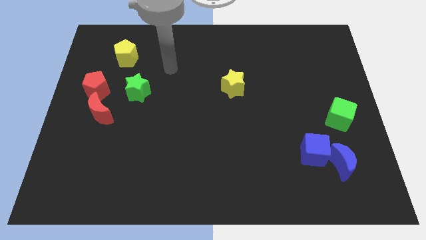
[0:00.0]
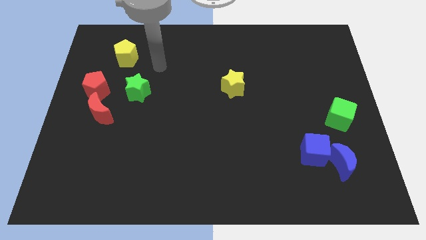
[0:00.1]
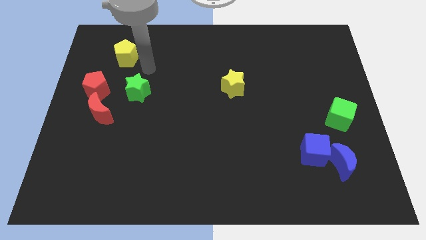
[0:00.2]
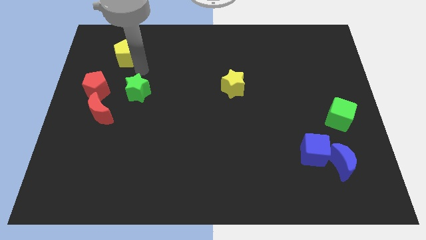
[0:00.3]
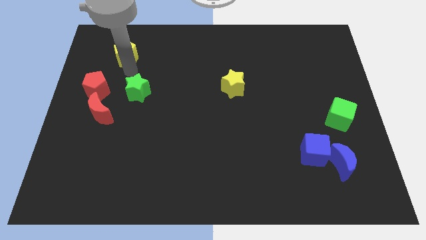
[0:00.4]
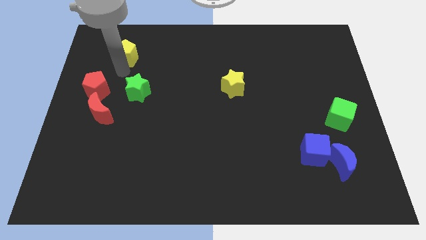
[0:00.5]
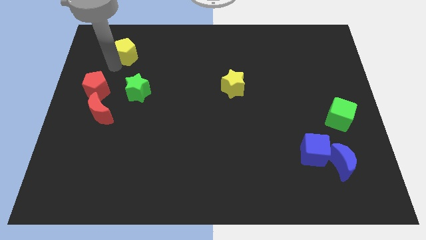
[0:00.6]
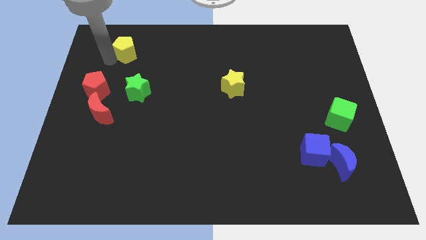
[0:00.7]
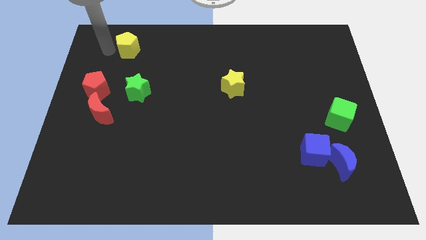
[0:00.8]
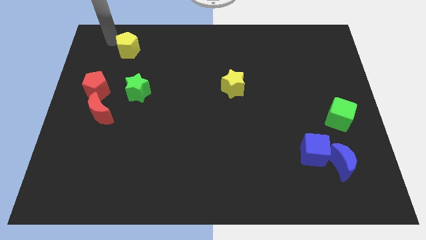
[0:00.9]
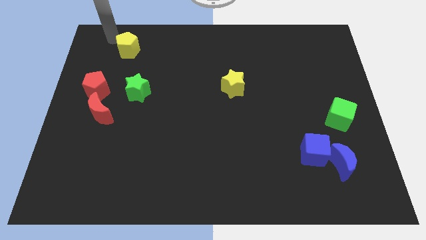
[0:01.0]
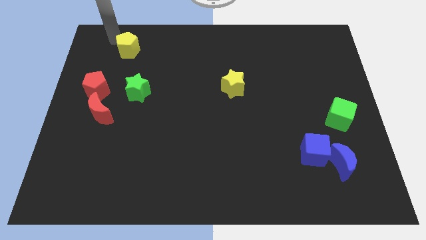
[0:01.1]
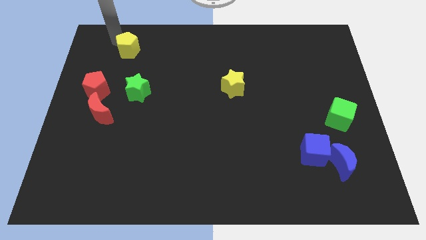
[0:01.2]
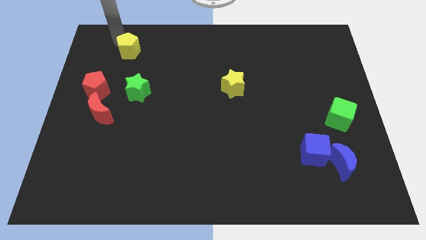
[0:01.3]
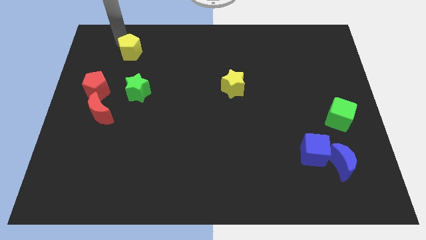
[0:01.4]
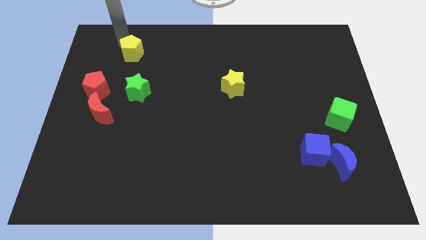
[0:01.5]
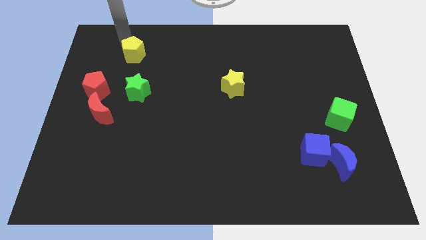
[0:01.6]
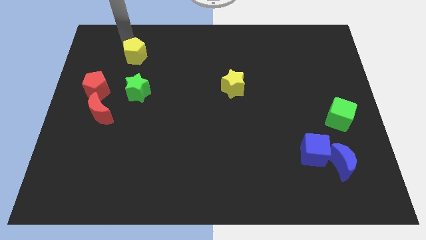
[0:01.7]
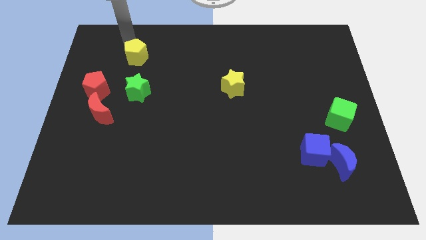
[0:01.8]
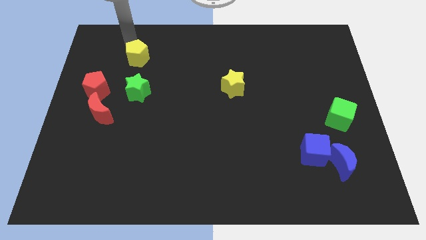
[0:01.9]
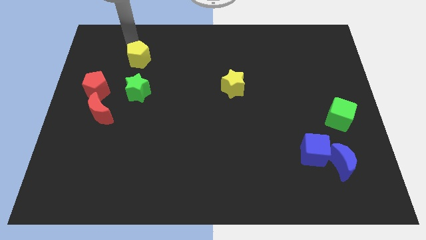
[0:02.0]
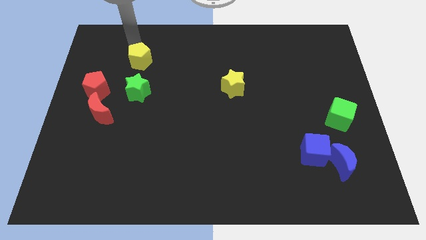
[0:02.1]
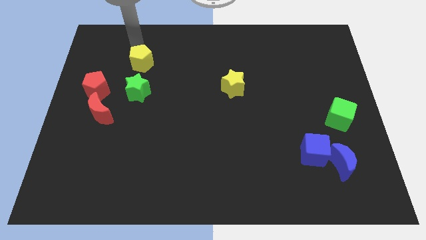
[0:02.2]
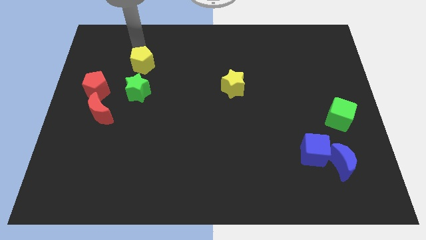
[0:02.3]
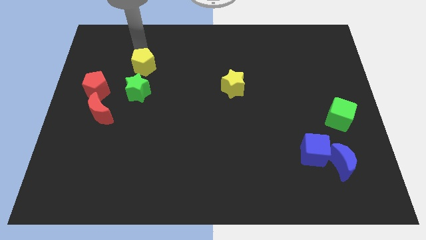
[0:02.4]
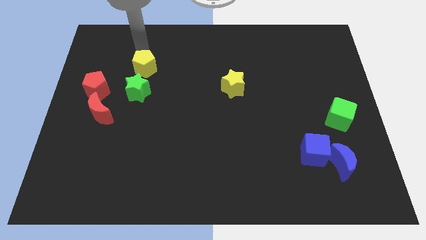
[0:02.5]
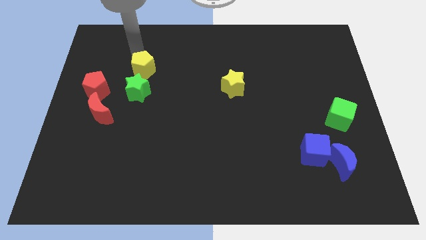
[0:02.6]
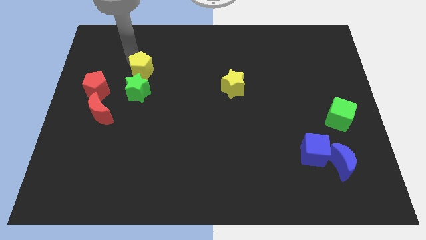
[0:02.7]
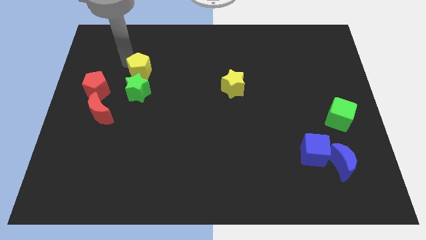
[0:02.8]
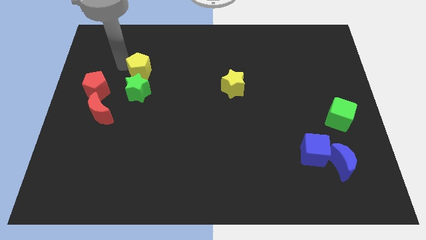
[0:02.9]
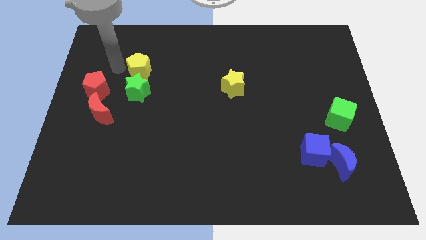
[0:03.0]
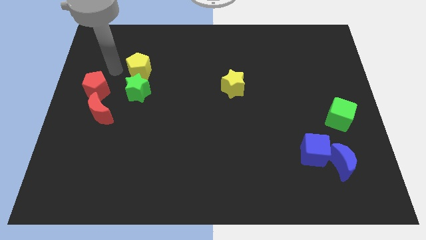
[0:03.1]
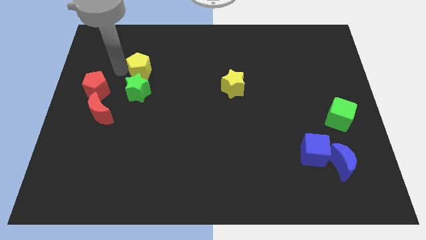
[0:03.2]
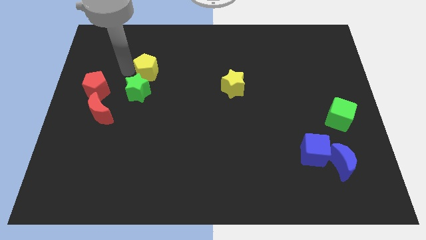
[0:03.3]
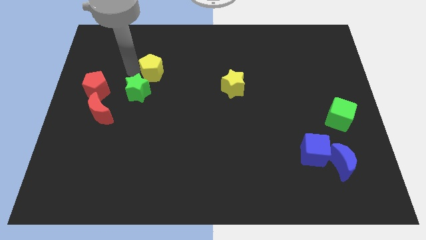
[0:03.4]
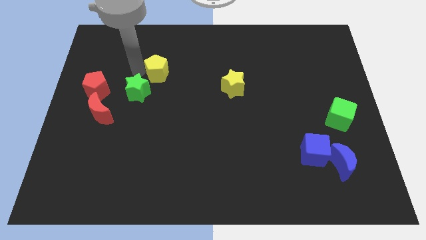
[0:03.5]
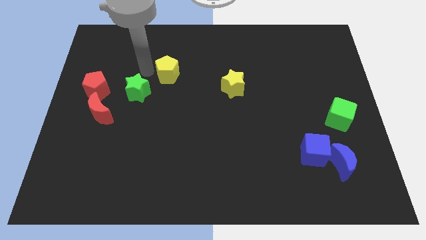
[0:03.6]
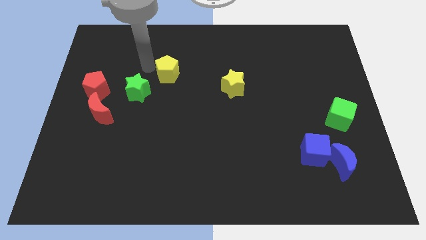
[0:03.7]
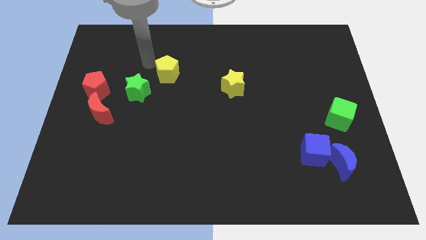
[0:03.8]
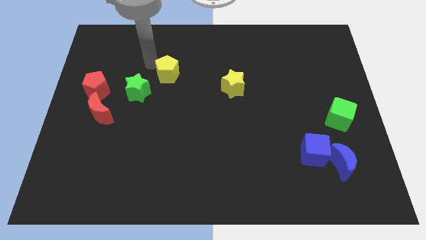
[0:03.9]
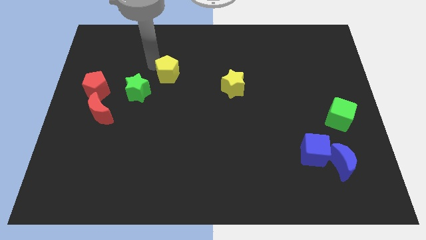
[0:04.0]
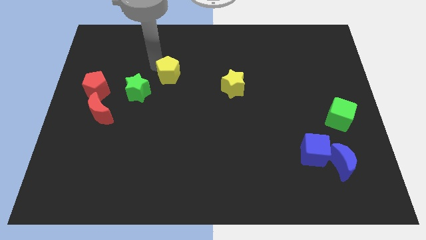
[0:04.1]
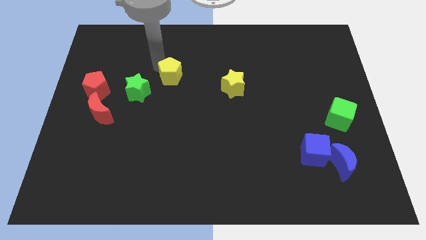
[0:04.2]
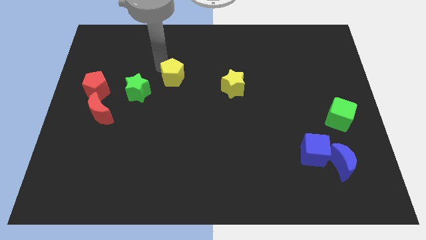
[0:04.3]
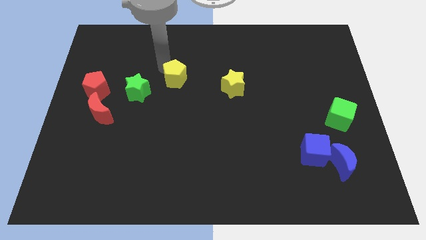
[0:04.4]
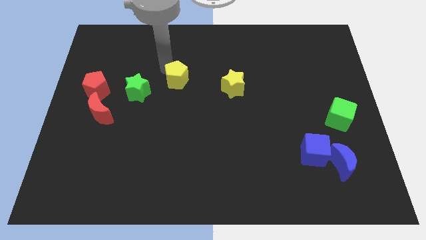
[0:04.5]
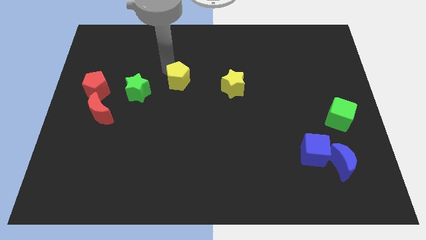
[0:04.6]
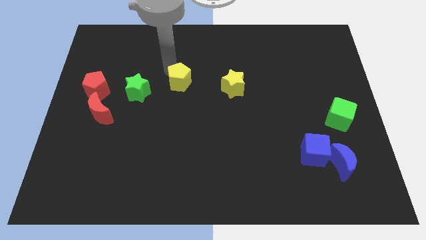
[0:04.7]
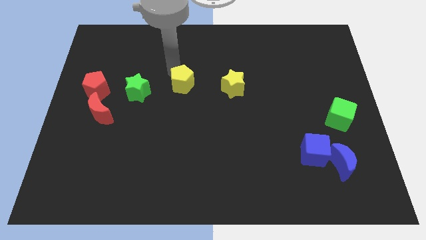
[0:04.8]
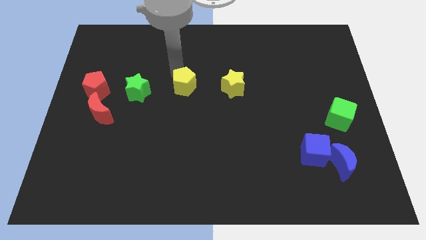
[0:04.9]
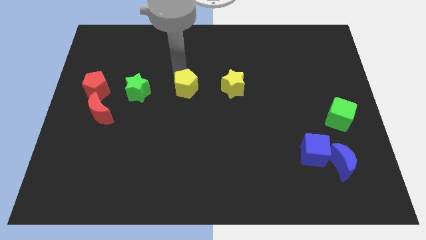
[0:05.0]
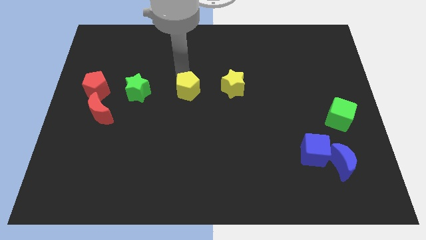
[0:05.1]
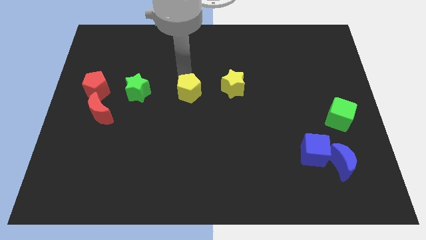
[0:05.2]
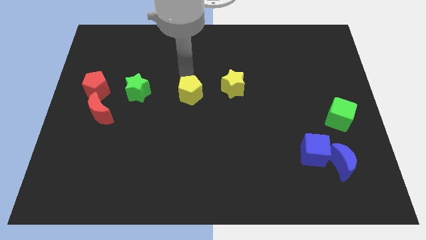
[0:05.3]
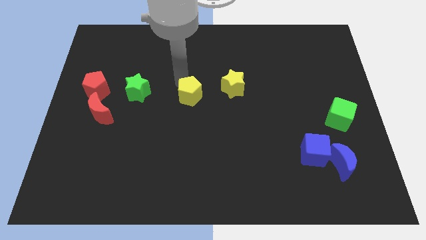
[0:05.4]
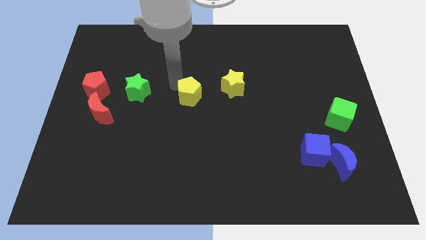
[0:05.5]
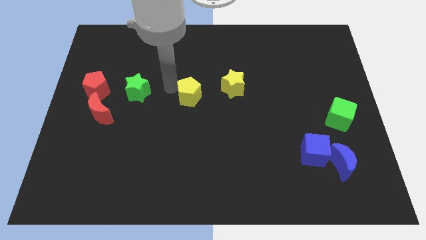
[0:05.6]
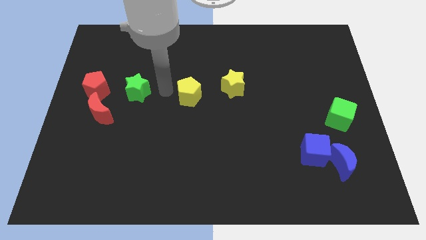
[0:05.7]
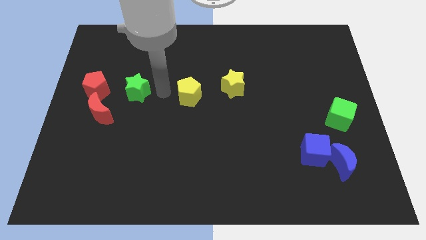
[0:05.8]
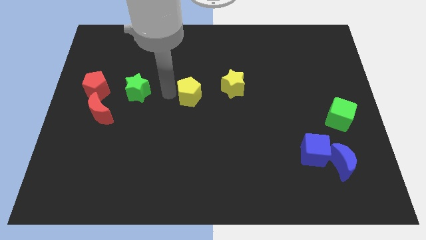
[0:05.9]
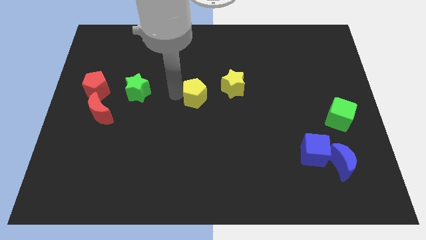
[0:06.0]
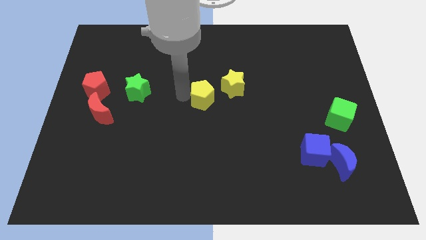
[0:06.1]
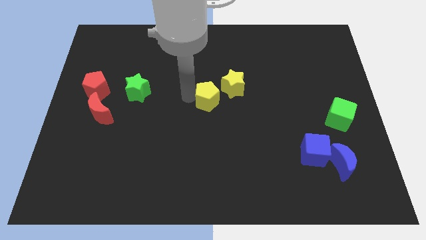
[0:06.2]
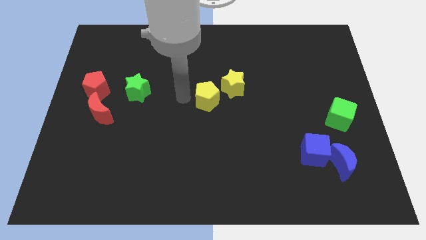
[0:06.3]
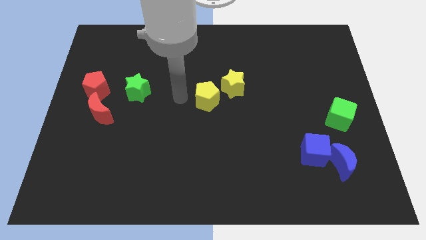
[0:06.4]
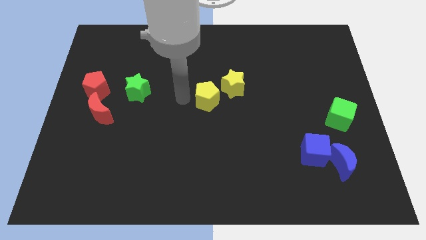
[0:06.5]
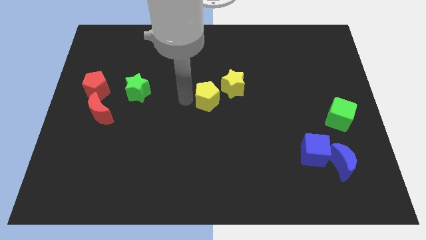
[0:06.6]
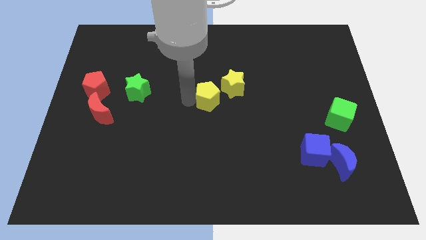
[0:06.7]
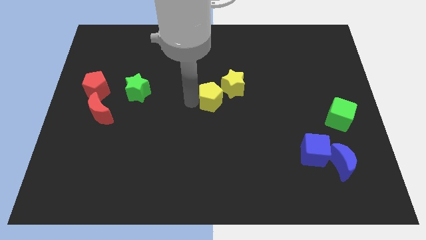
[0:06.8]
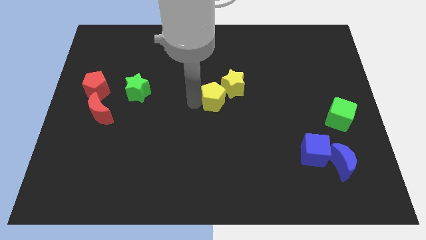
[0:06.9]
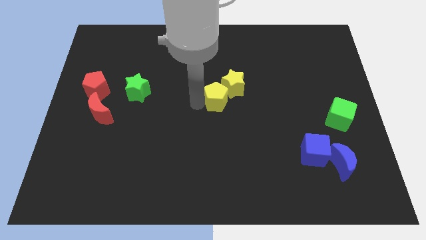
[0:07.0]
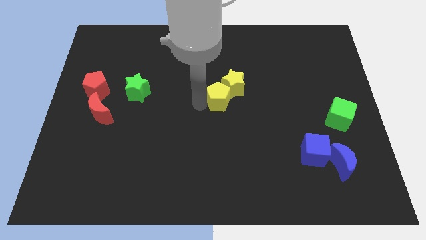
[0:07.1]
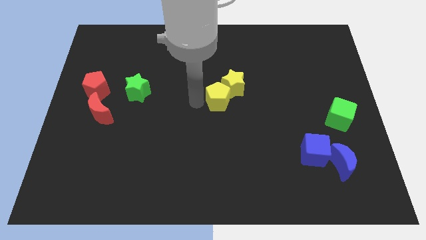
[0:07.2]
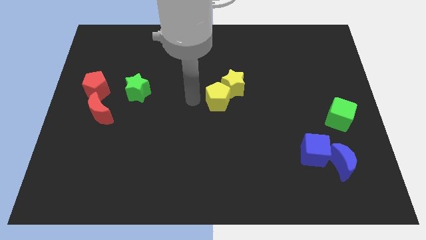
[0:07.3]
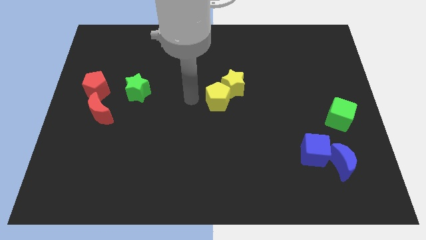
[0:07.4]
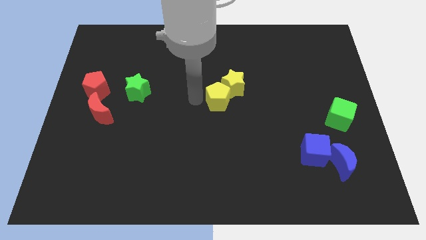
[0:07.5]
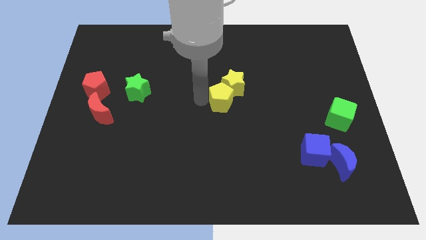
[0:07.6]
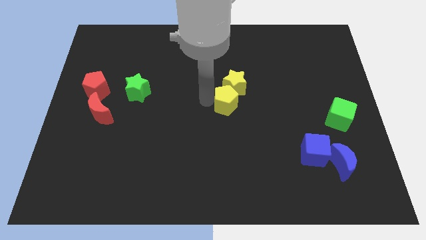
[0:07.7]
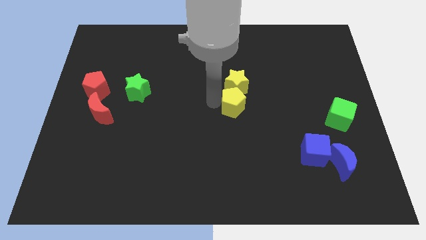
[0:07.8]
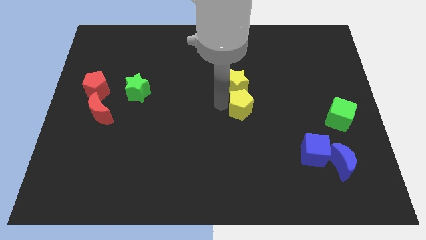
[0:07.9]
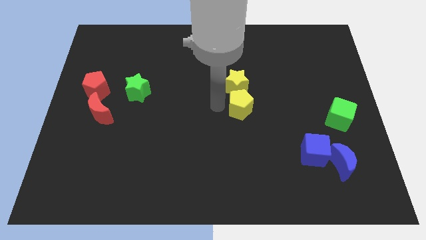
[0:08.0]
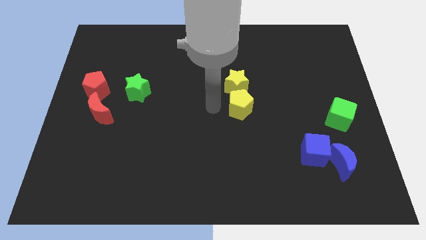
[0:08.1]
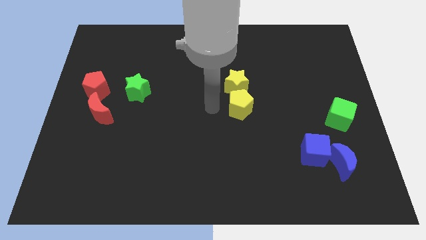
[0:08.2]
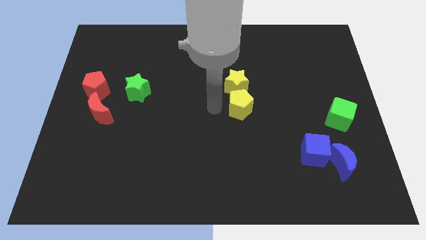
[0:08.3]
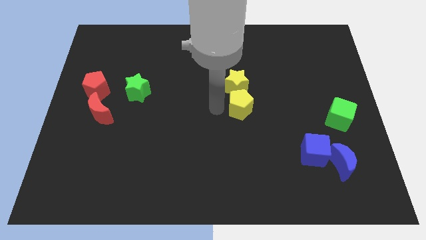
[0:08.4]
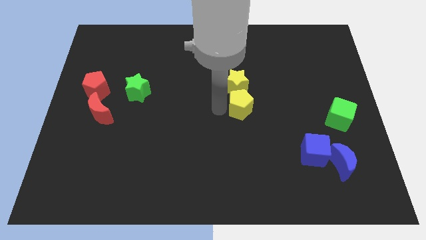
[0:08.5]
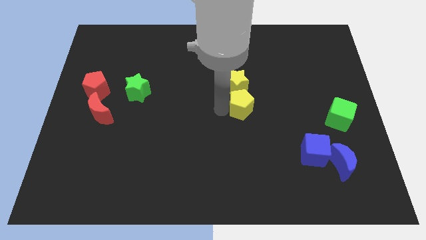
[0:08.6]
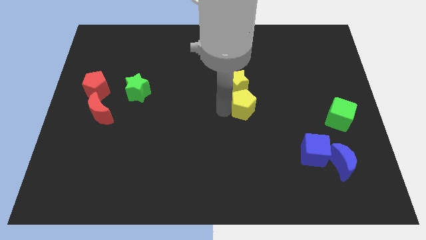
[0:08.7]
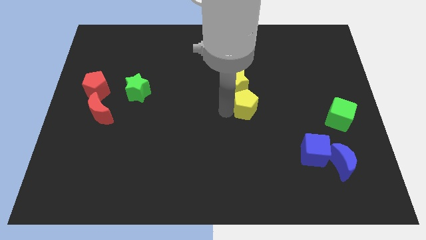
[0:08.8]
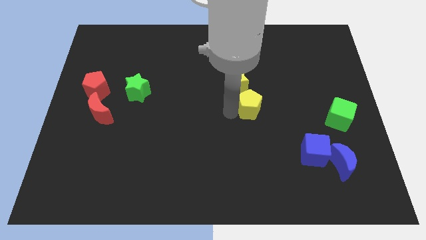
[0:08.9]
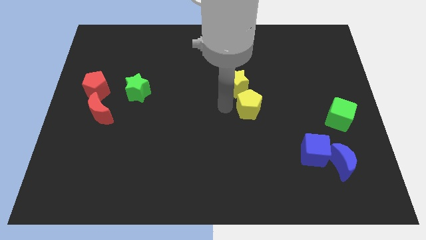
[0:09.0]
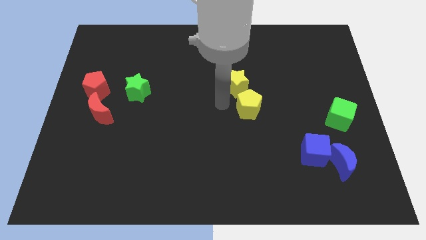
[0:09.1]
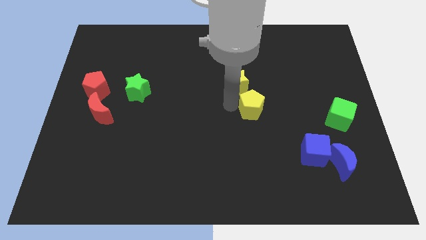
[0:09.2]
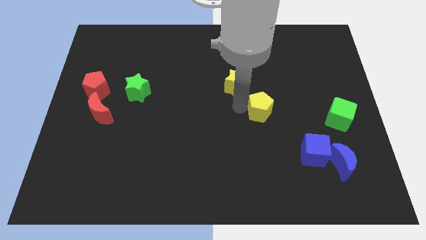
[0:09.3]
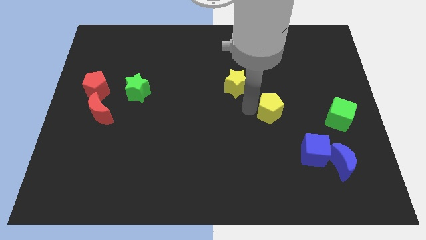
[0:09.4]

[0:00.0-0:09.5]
push the yellow pentagon to the left of the green cube
